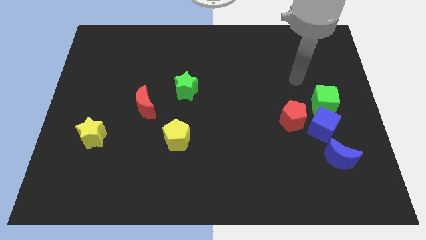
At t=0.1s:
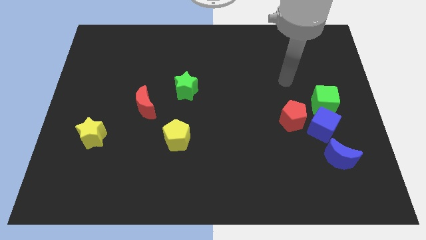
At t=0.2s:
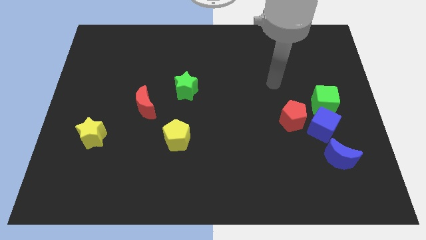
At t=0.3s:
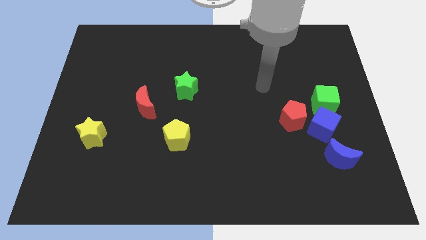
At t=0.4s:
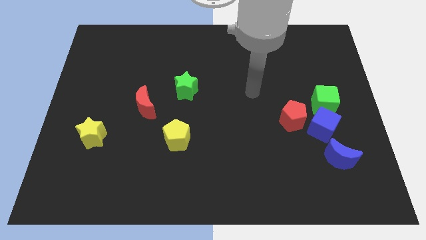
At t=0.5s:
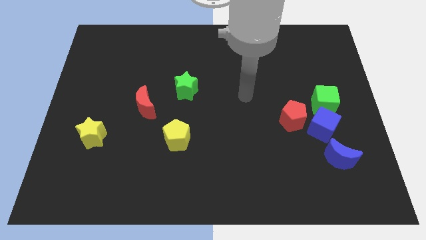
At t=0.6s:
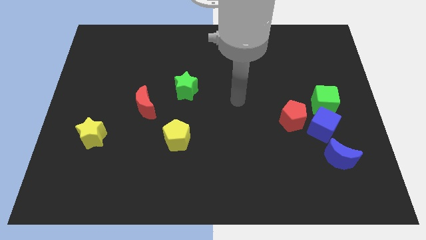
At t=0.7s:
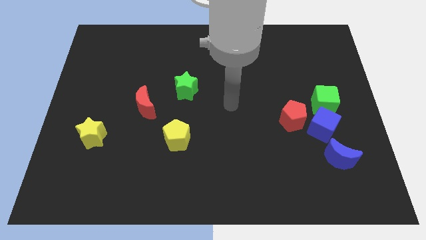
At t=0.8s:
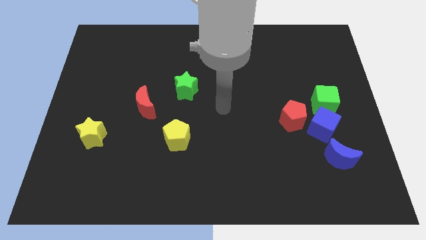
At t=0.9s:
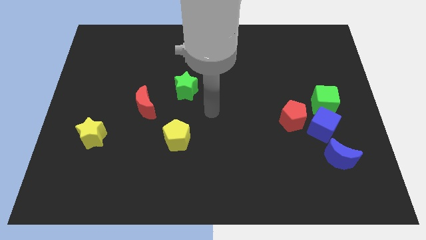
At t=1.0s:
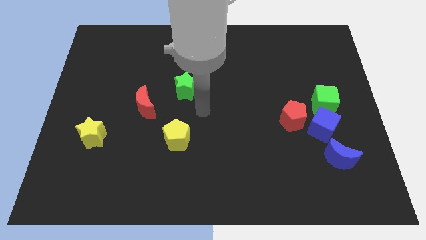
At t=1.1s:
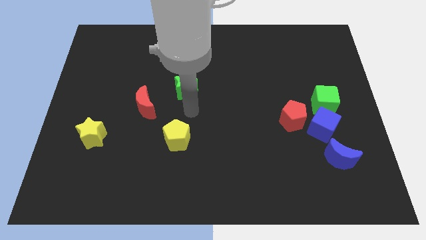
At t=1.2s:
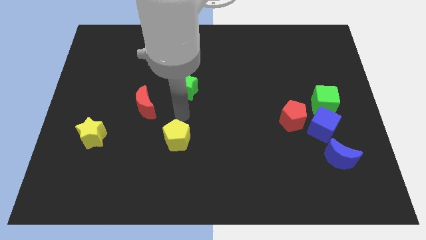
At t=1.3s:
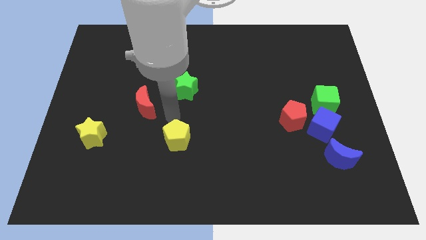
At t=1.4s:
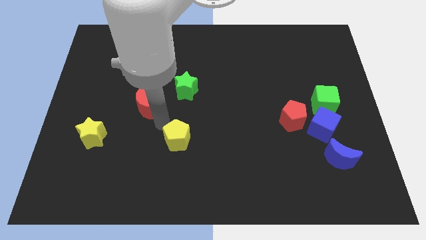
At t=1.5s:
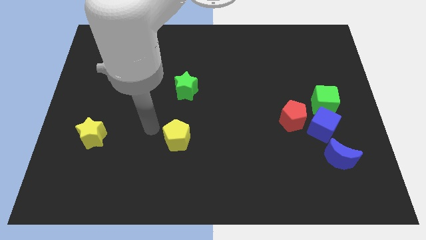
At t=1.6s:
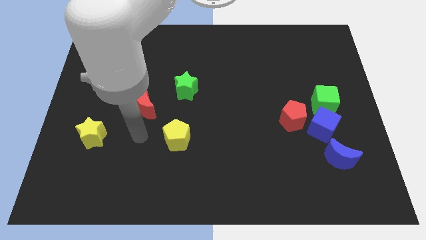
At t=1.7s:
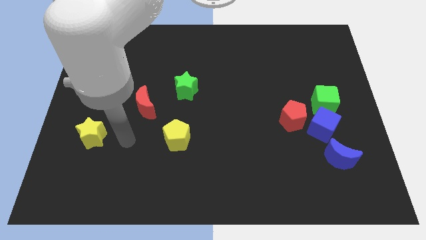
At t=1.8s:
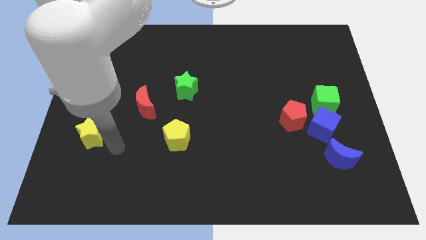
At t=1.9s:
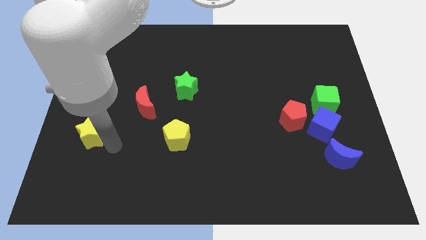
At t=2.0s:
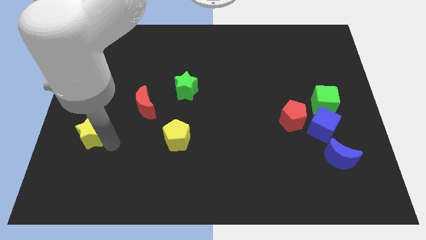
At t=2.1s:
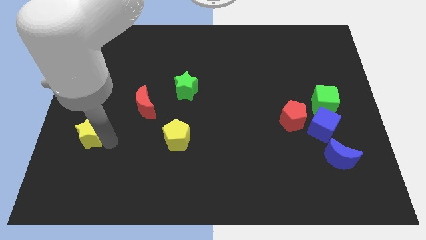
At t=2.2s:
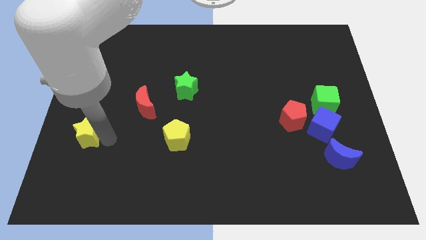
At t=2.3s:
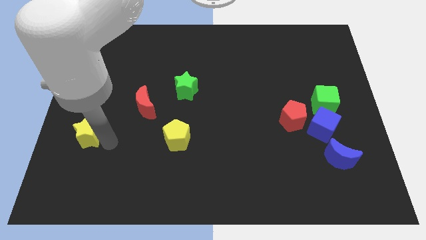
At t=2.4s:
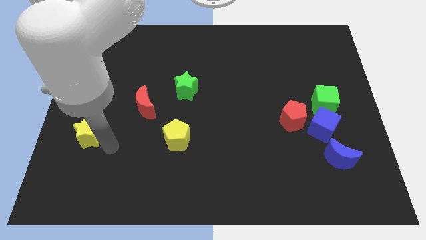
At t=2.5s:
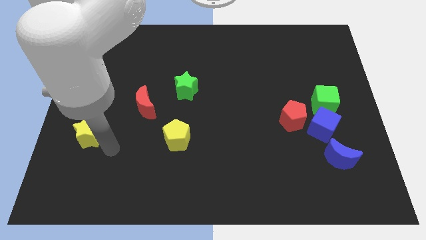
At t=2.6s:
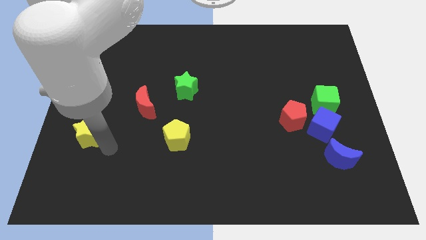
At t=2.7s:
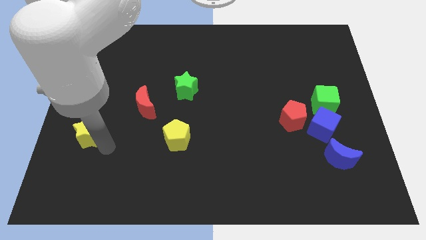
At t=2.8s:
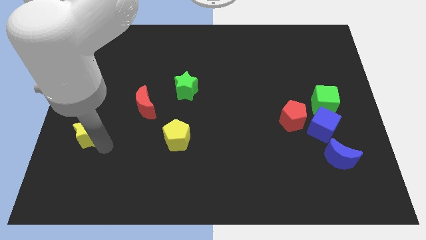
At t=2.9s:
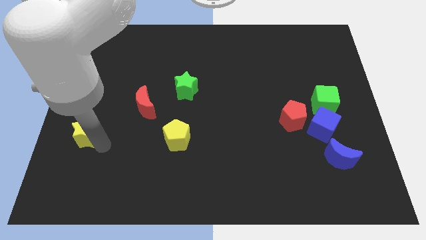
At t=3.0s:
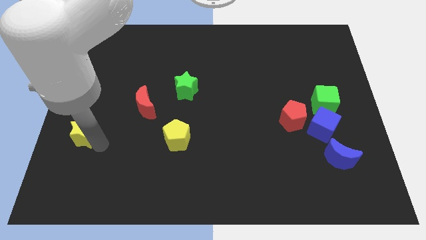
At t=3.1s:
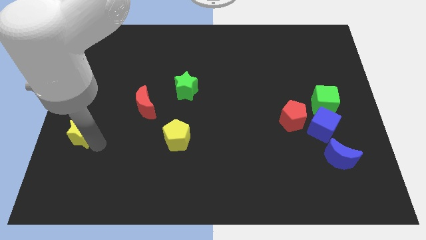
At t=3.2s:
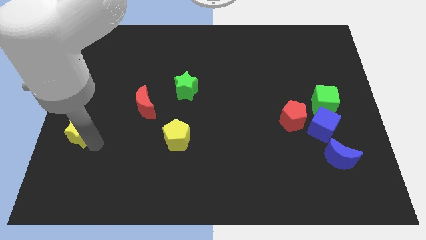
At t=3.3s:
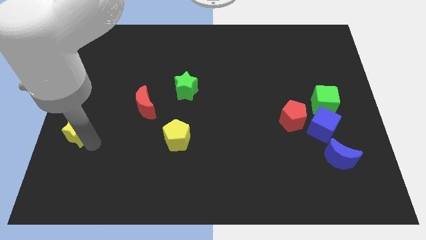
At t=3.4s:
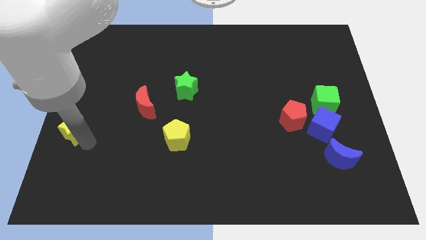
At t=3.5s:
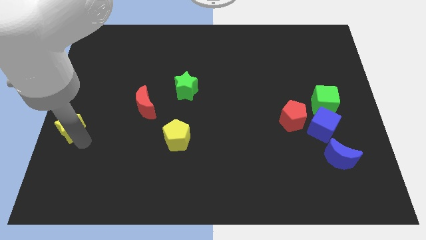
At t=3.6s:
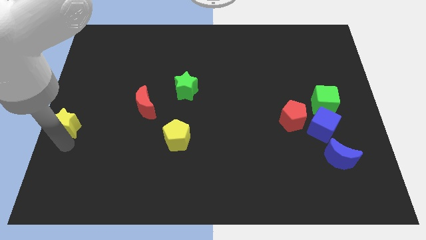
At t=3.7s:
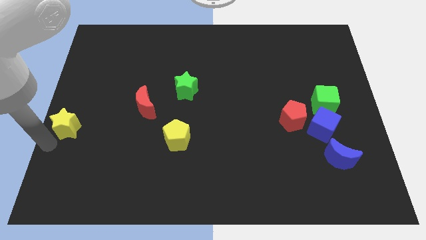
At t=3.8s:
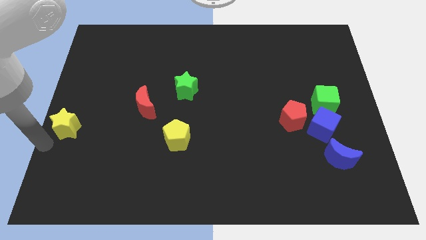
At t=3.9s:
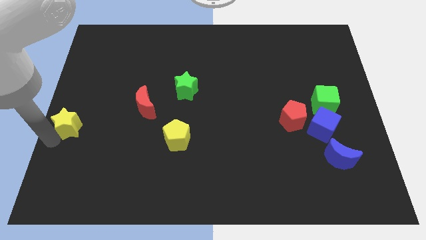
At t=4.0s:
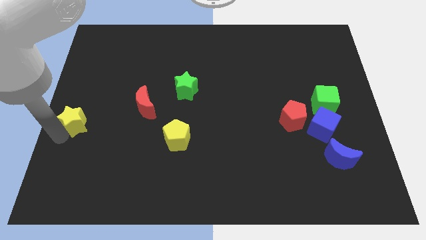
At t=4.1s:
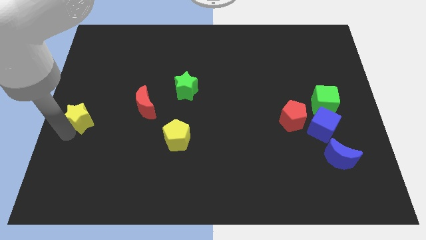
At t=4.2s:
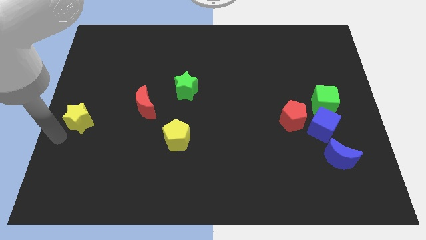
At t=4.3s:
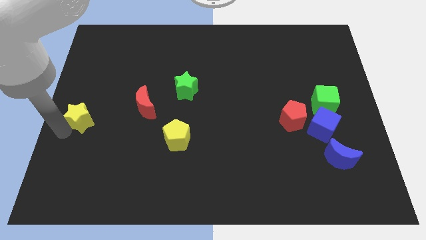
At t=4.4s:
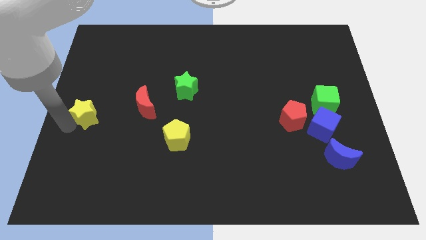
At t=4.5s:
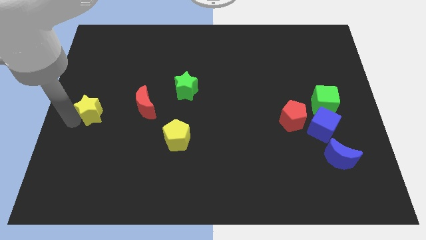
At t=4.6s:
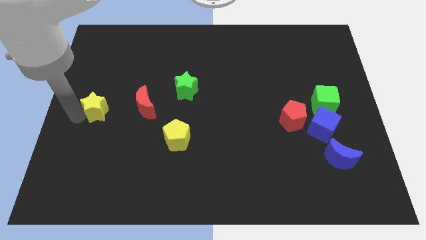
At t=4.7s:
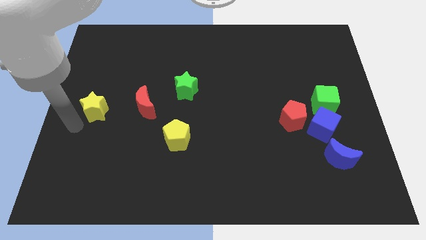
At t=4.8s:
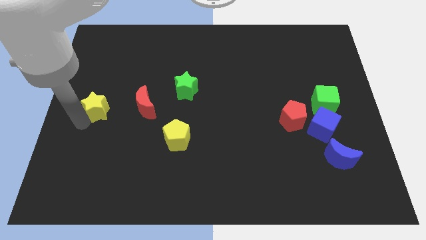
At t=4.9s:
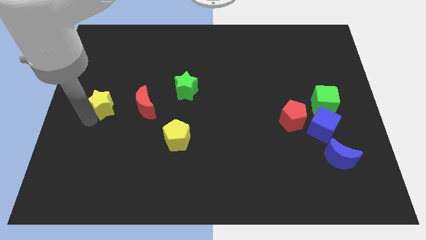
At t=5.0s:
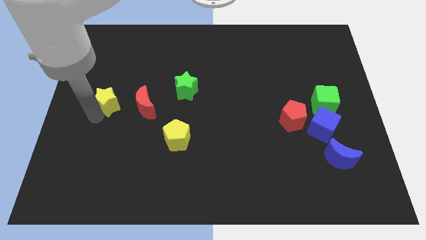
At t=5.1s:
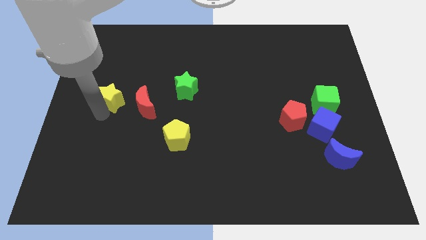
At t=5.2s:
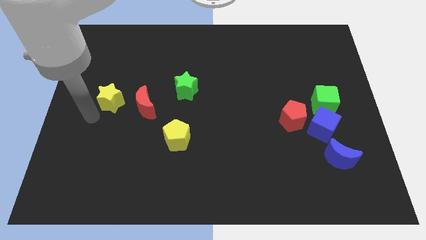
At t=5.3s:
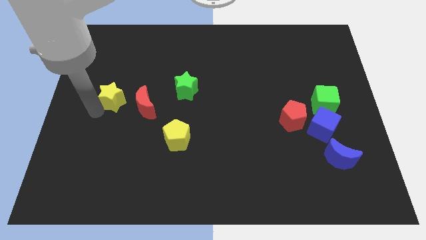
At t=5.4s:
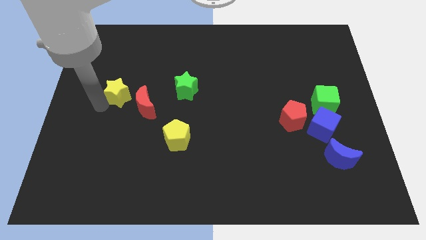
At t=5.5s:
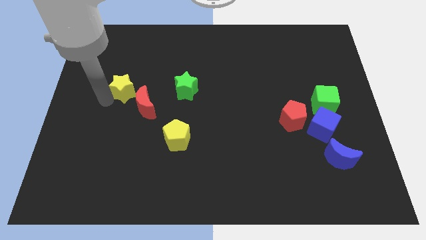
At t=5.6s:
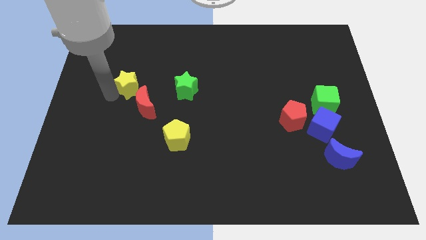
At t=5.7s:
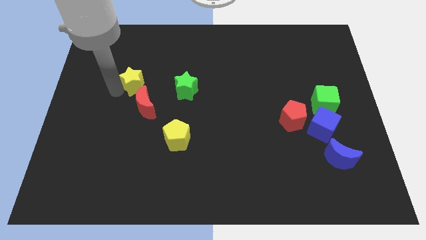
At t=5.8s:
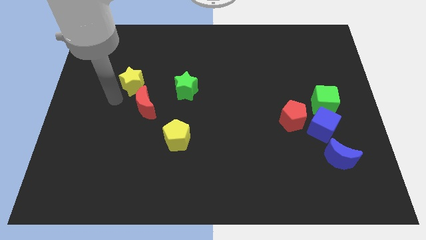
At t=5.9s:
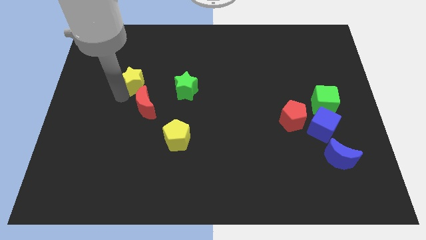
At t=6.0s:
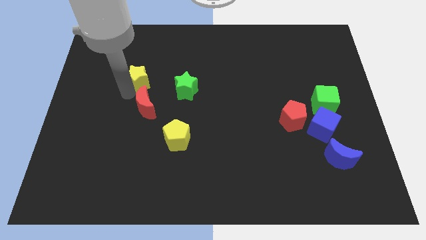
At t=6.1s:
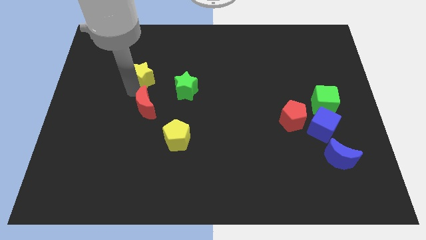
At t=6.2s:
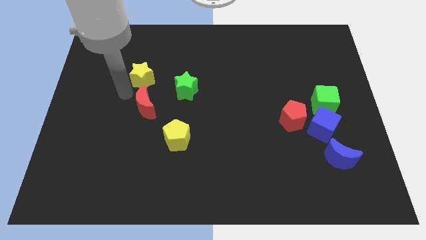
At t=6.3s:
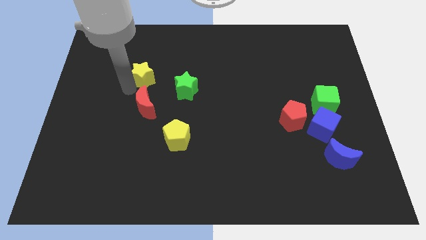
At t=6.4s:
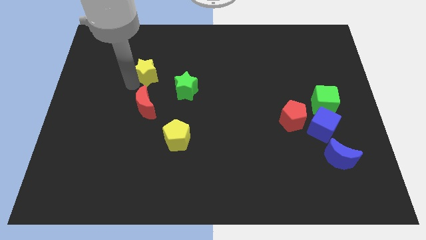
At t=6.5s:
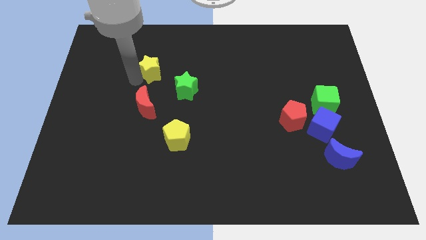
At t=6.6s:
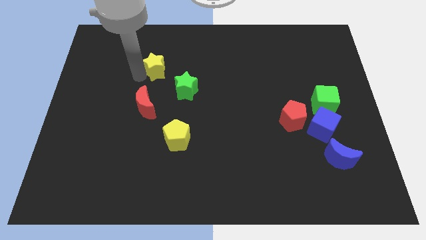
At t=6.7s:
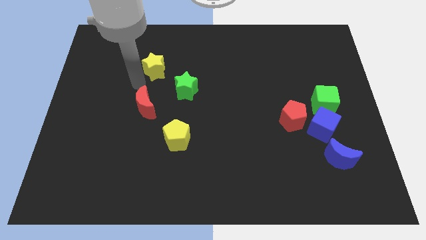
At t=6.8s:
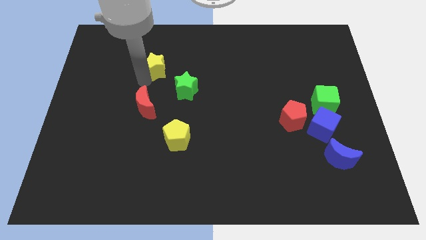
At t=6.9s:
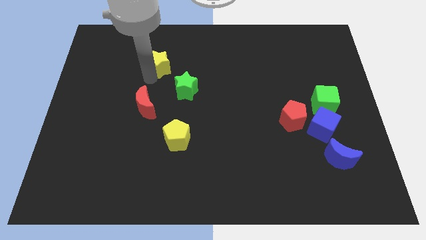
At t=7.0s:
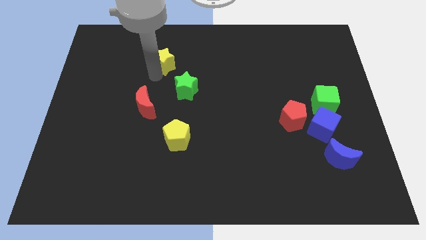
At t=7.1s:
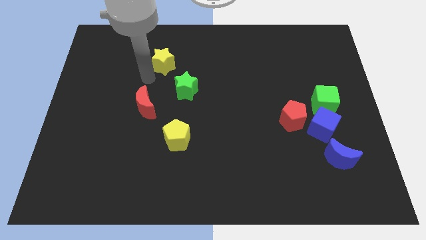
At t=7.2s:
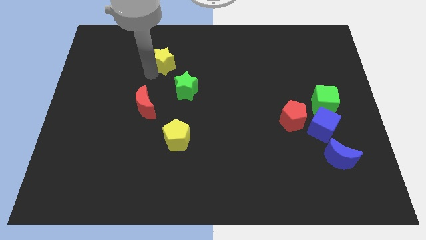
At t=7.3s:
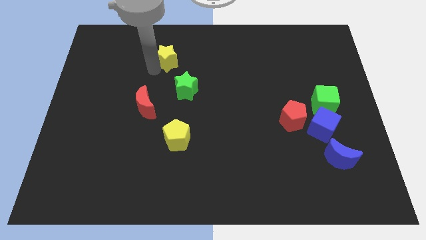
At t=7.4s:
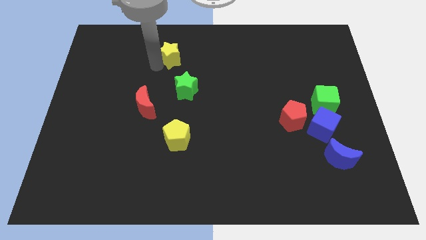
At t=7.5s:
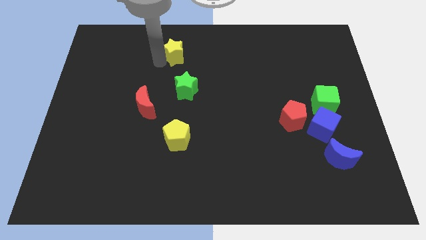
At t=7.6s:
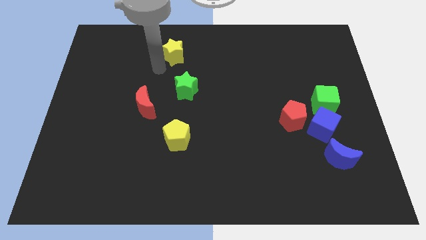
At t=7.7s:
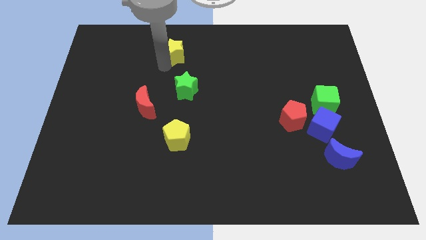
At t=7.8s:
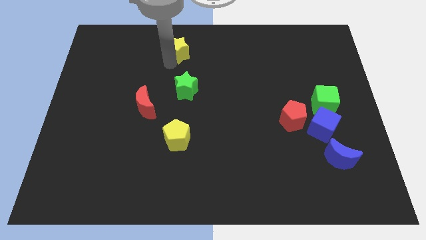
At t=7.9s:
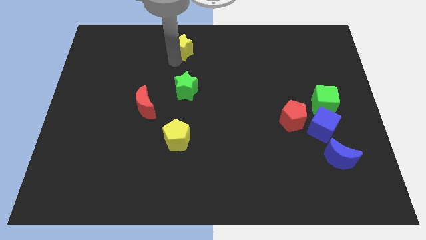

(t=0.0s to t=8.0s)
push the yellow star to the towards your base
